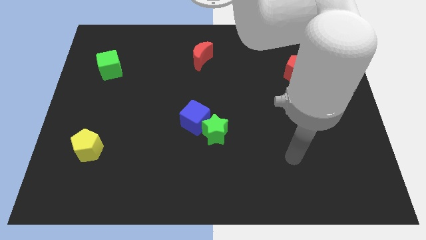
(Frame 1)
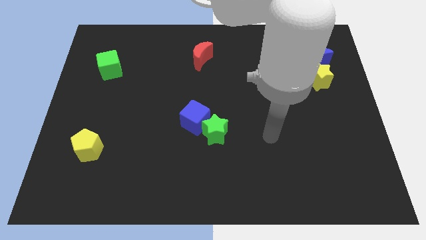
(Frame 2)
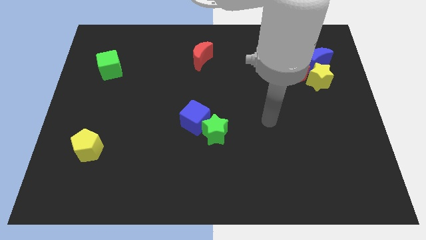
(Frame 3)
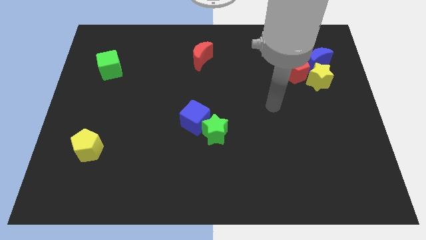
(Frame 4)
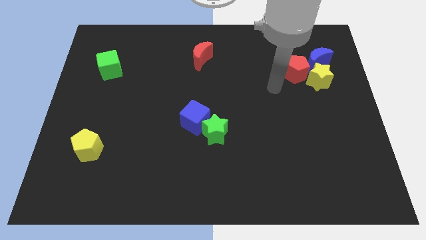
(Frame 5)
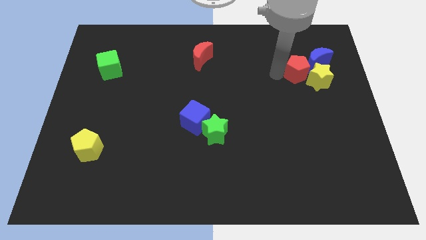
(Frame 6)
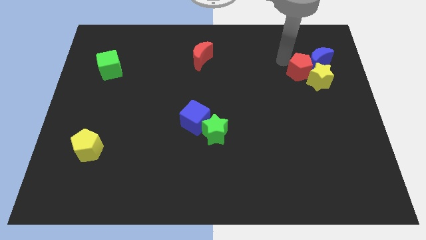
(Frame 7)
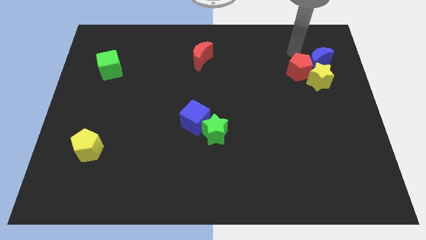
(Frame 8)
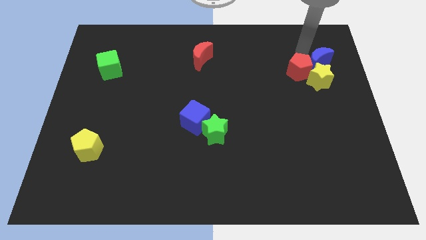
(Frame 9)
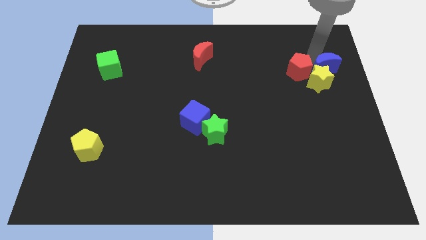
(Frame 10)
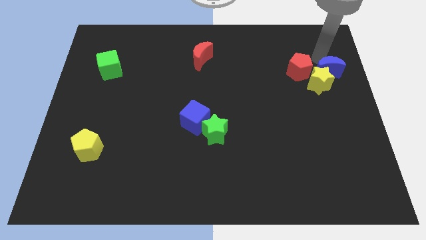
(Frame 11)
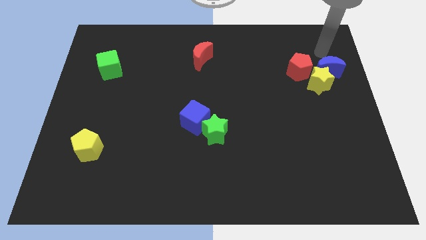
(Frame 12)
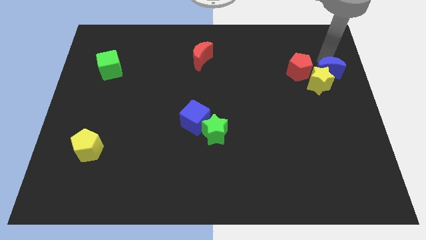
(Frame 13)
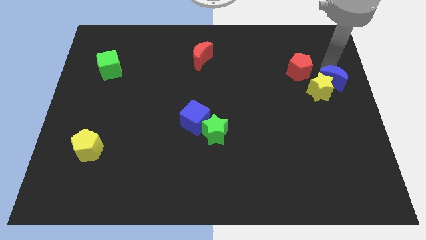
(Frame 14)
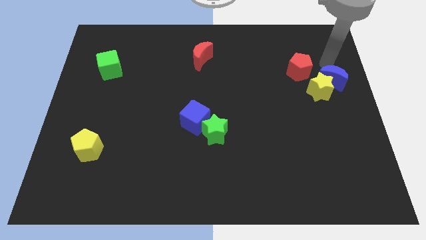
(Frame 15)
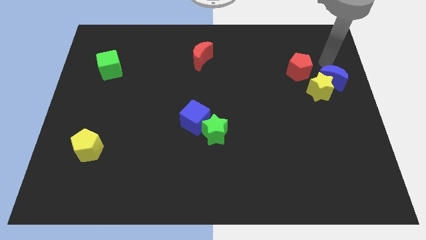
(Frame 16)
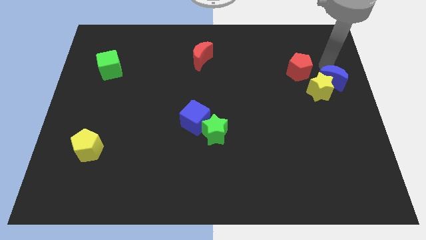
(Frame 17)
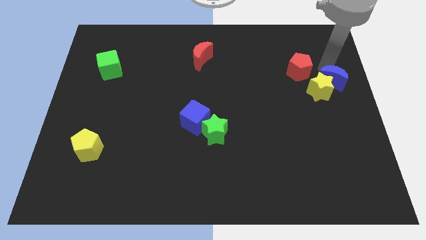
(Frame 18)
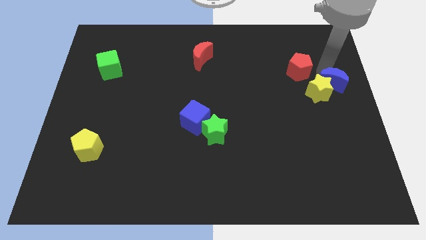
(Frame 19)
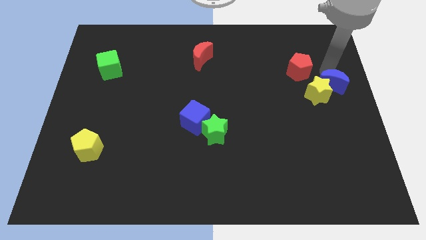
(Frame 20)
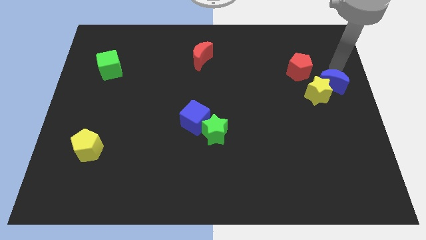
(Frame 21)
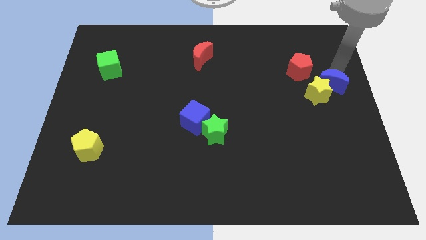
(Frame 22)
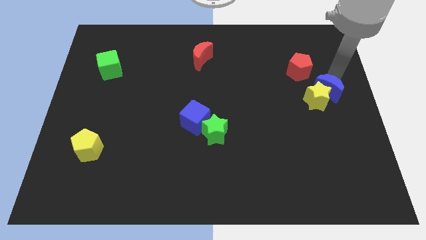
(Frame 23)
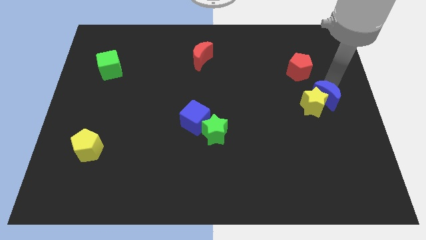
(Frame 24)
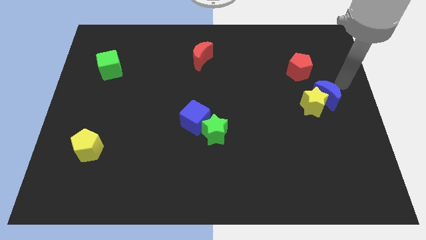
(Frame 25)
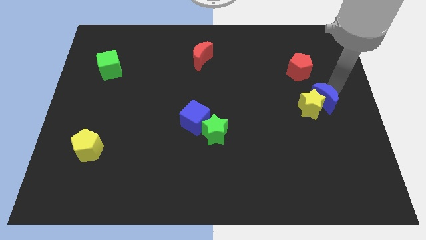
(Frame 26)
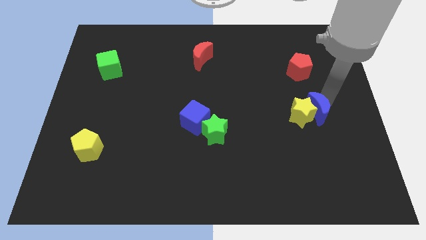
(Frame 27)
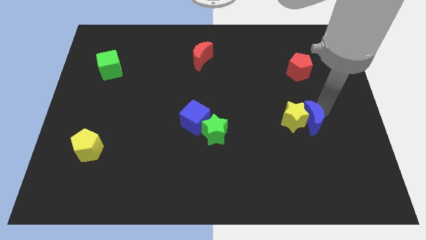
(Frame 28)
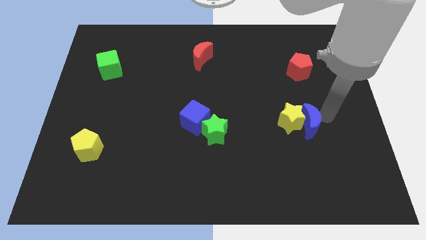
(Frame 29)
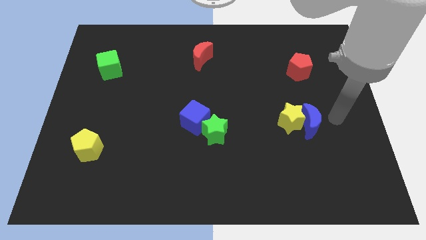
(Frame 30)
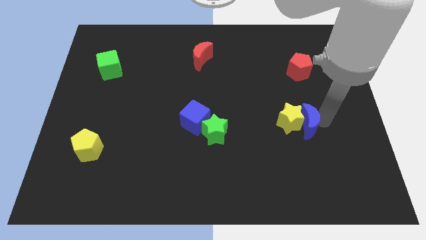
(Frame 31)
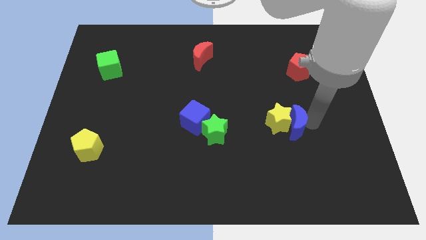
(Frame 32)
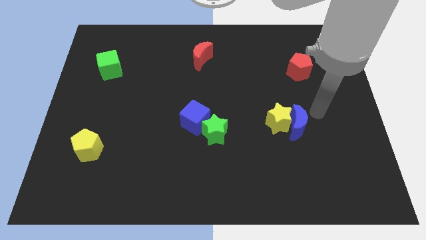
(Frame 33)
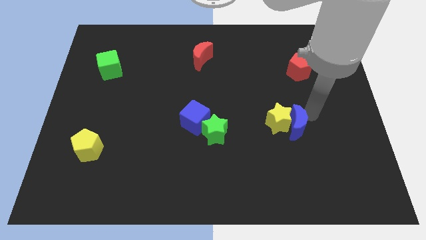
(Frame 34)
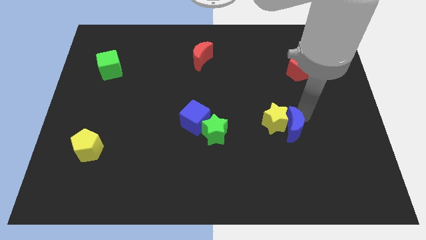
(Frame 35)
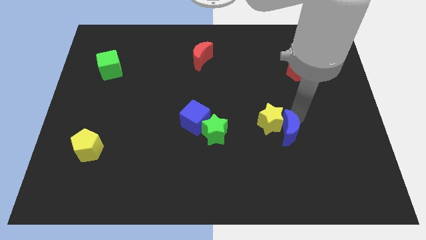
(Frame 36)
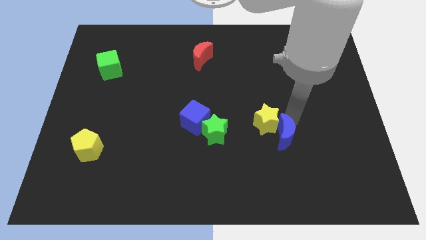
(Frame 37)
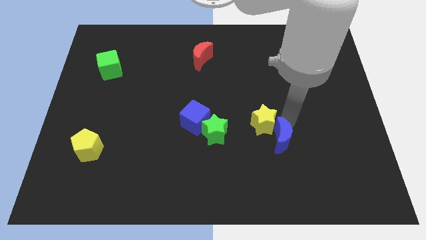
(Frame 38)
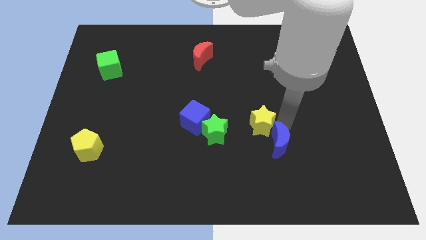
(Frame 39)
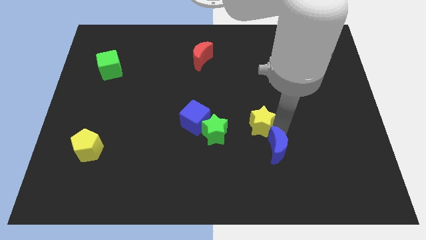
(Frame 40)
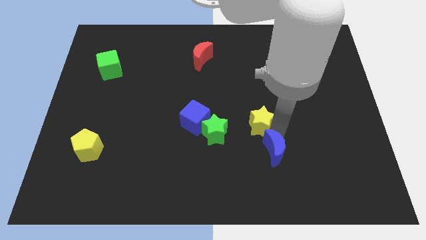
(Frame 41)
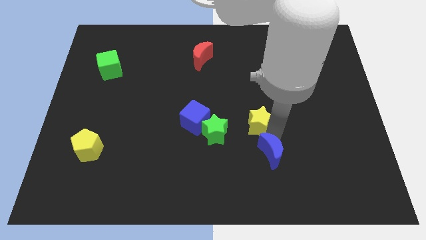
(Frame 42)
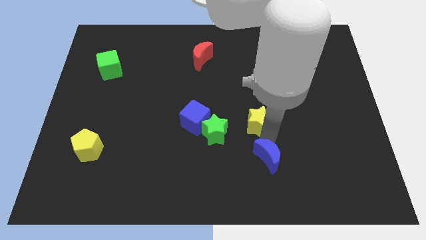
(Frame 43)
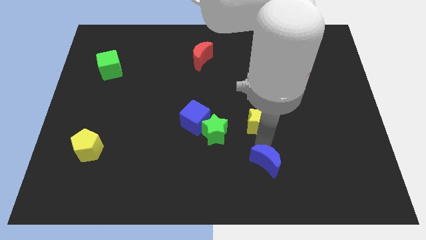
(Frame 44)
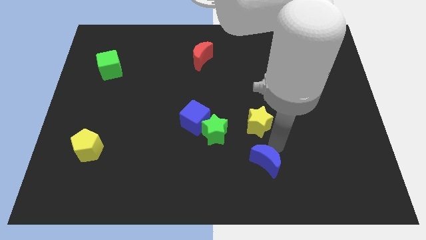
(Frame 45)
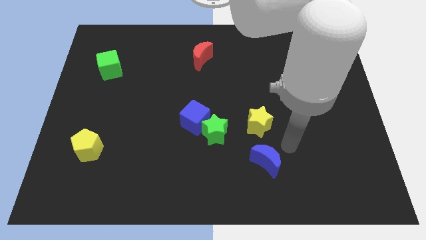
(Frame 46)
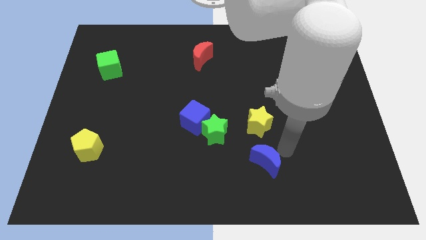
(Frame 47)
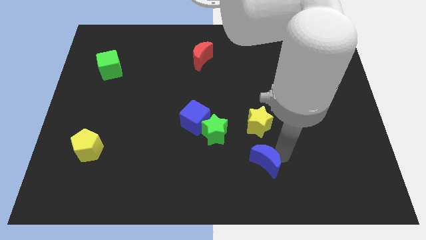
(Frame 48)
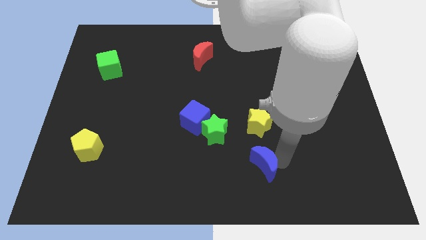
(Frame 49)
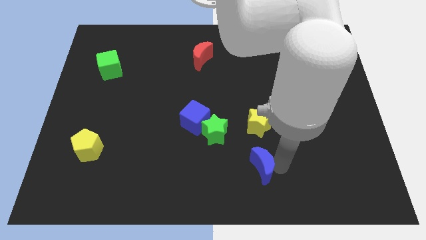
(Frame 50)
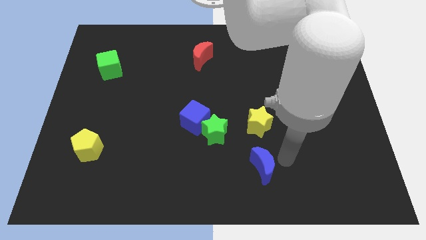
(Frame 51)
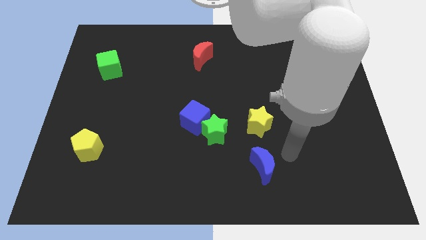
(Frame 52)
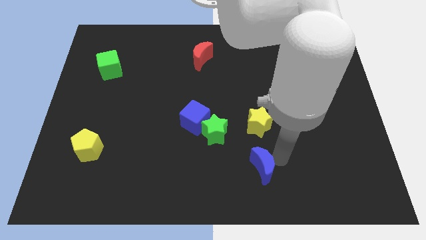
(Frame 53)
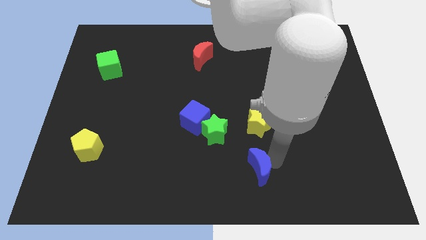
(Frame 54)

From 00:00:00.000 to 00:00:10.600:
put the blue moon to the bottom

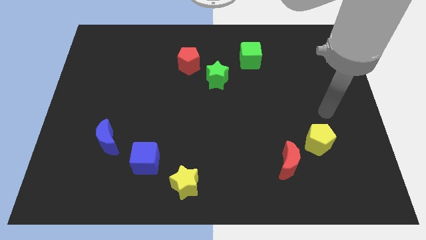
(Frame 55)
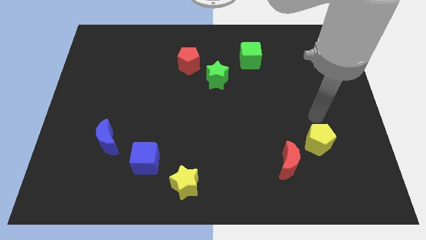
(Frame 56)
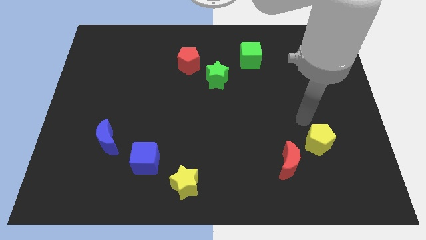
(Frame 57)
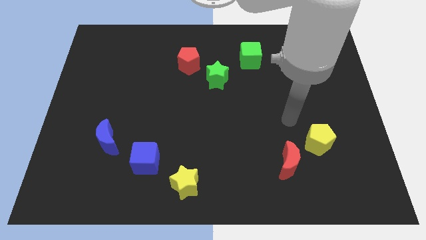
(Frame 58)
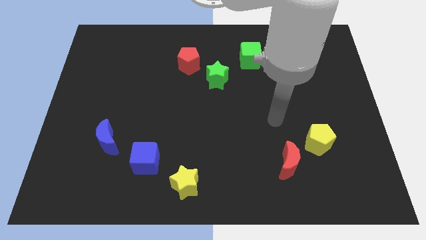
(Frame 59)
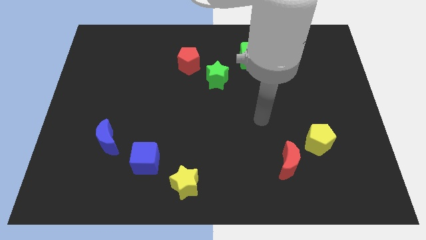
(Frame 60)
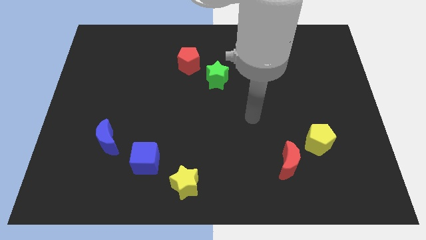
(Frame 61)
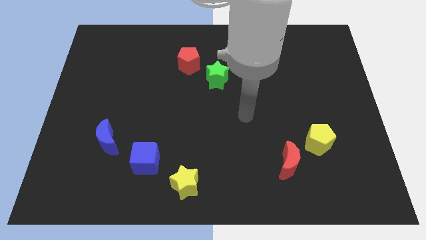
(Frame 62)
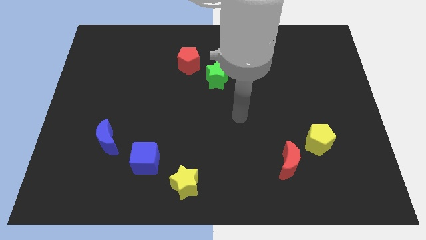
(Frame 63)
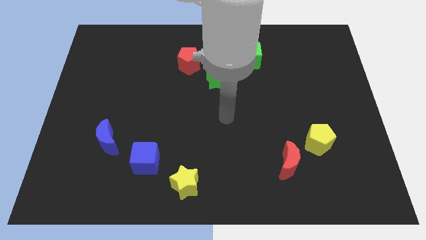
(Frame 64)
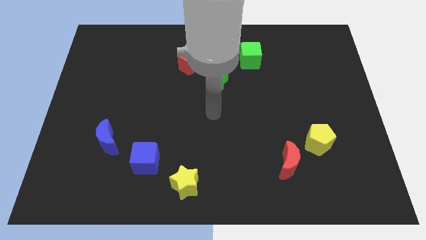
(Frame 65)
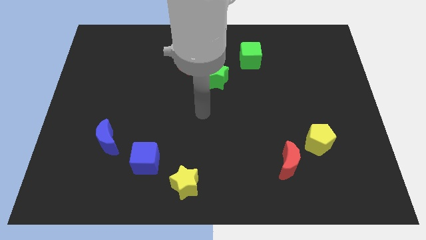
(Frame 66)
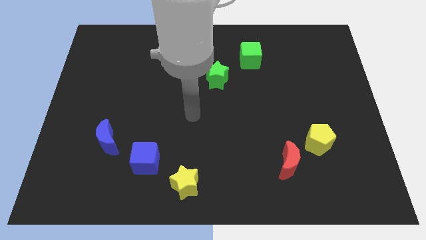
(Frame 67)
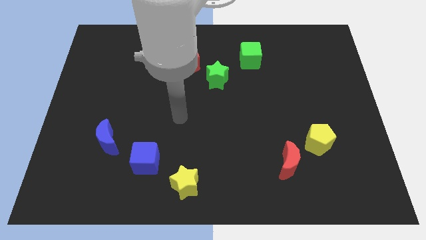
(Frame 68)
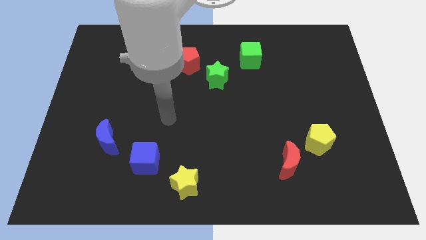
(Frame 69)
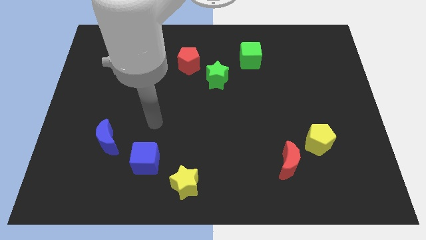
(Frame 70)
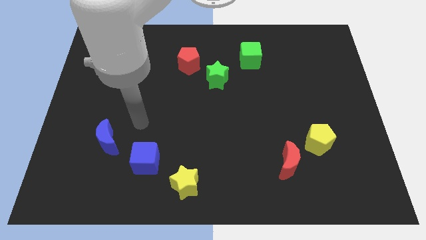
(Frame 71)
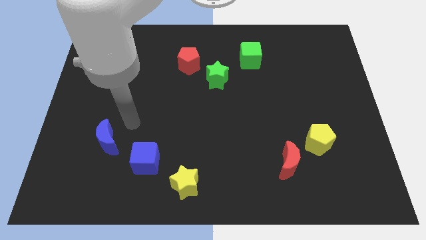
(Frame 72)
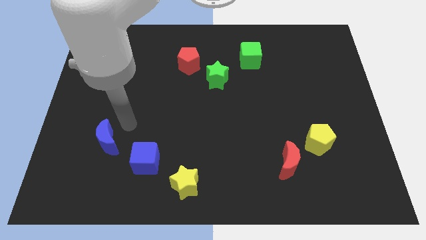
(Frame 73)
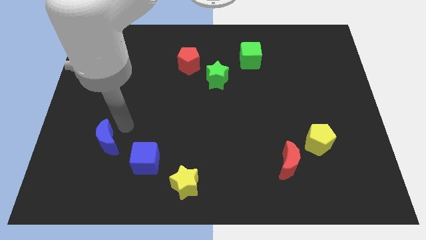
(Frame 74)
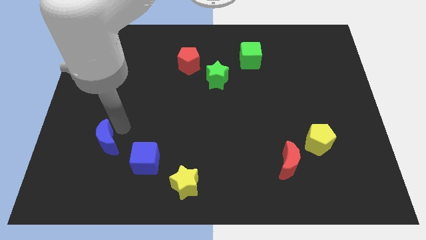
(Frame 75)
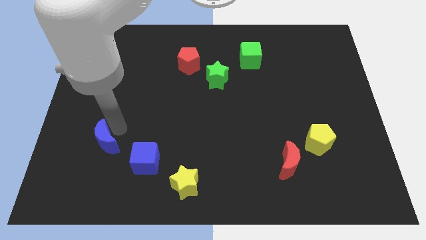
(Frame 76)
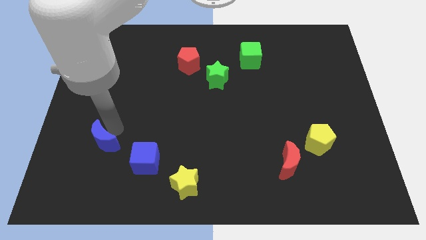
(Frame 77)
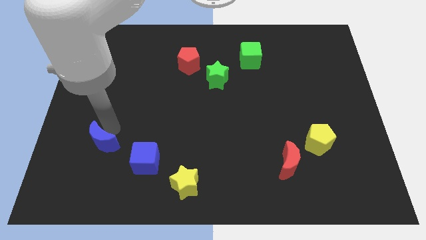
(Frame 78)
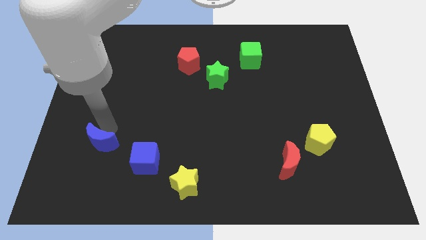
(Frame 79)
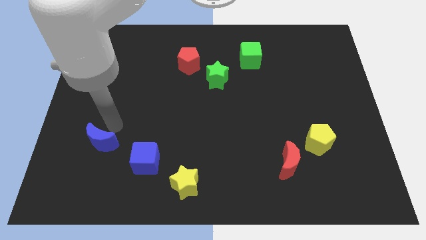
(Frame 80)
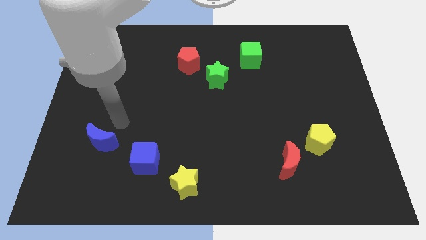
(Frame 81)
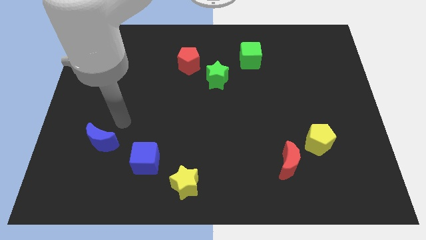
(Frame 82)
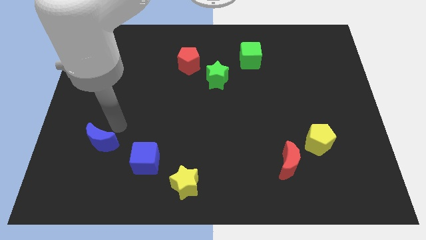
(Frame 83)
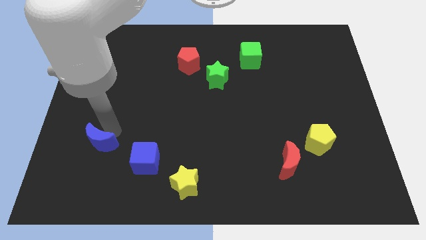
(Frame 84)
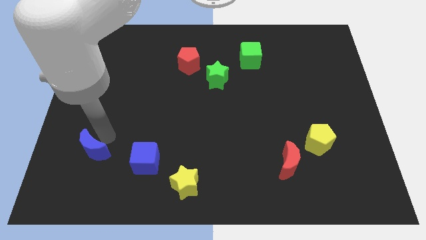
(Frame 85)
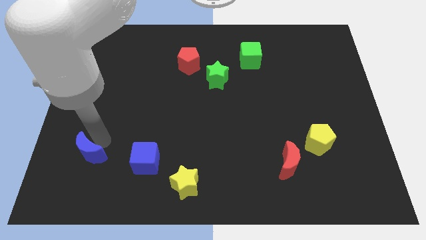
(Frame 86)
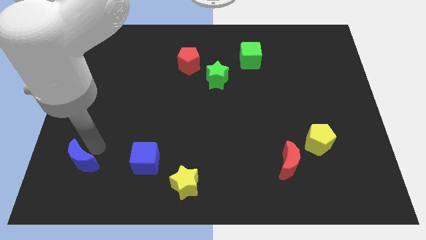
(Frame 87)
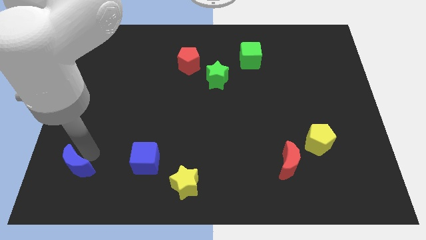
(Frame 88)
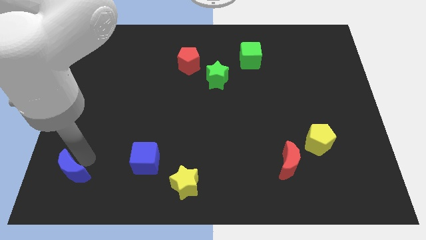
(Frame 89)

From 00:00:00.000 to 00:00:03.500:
push the blue moon to the bottom left of the board
